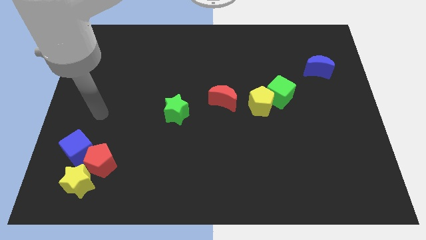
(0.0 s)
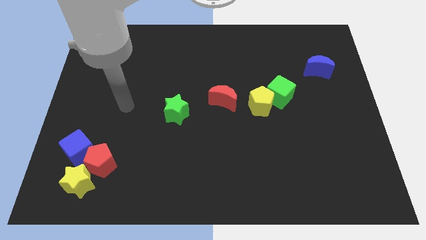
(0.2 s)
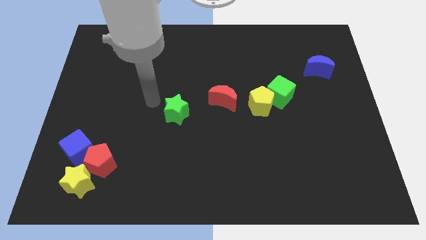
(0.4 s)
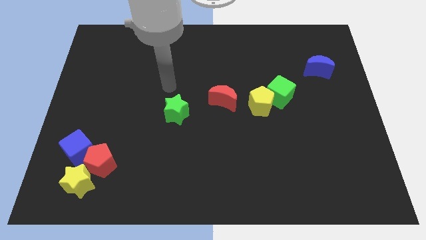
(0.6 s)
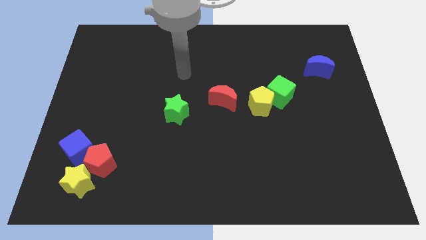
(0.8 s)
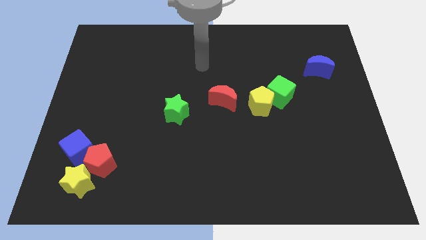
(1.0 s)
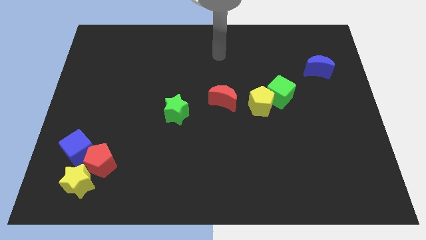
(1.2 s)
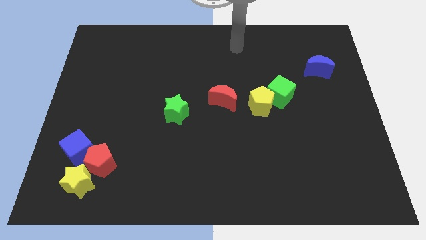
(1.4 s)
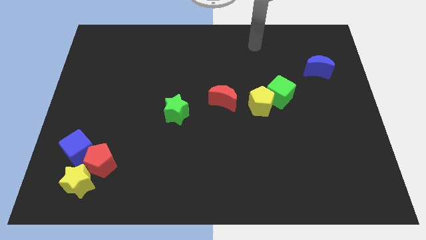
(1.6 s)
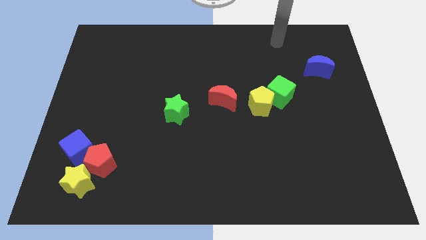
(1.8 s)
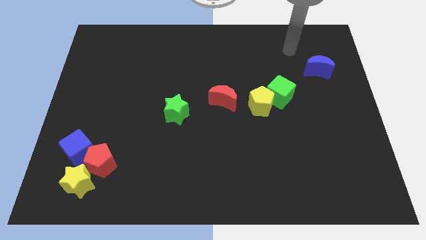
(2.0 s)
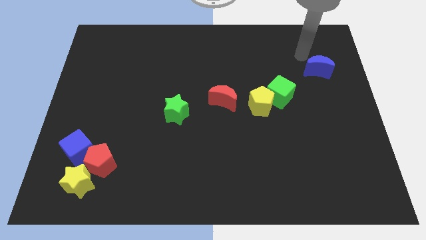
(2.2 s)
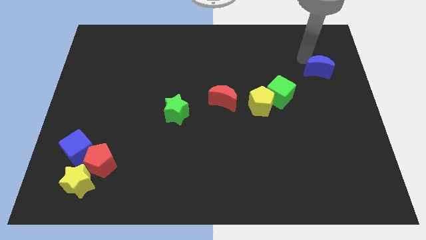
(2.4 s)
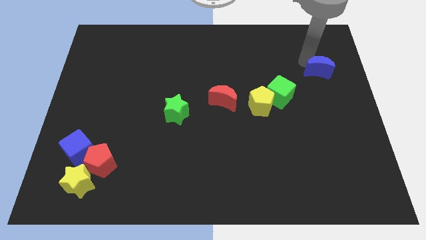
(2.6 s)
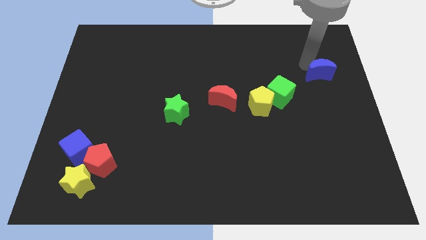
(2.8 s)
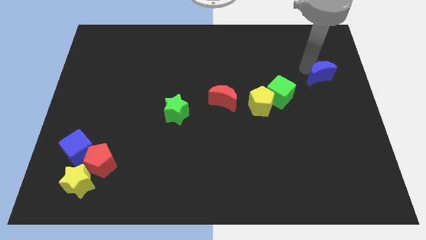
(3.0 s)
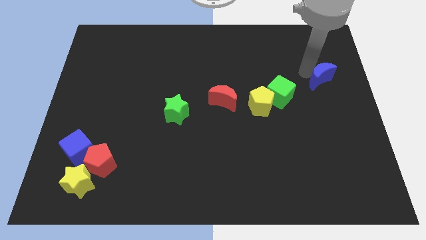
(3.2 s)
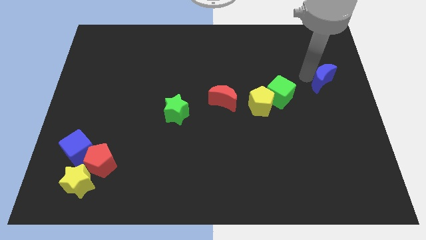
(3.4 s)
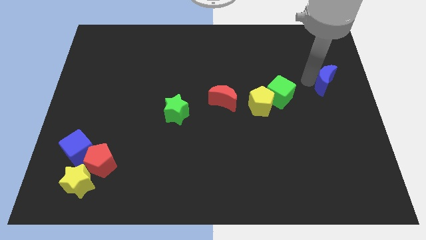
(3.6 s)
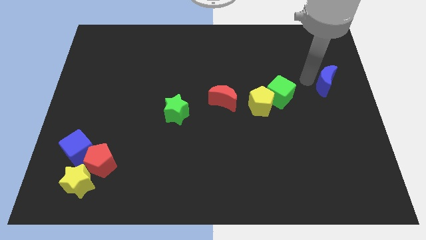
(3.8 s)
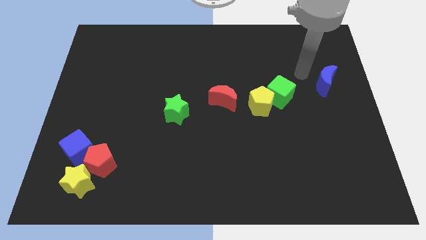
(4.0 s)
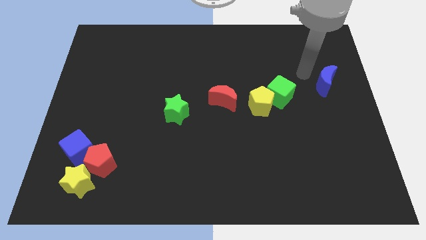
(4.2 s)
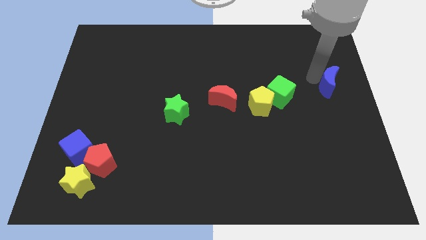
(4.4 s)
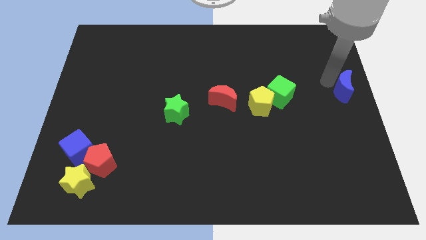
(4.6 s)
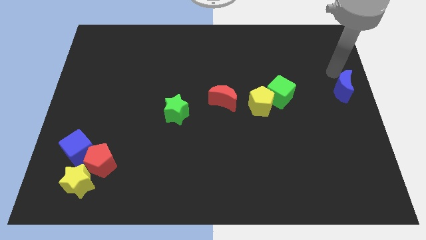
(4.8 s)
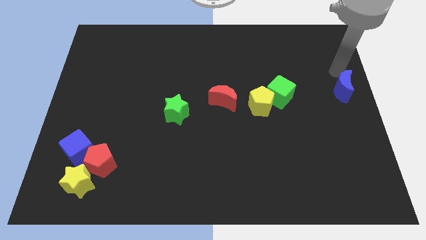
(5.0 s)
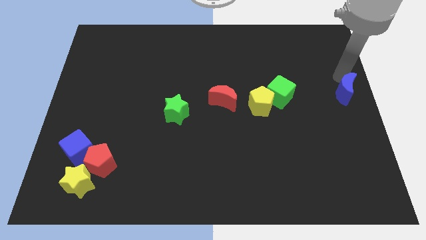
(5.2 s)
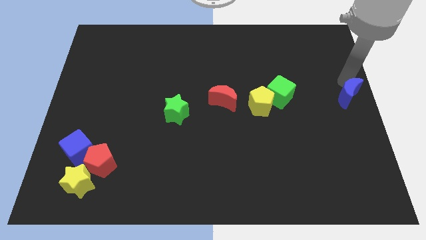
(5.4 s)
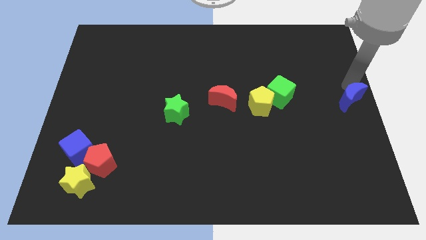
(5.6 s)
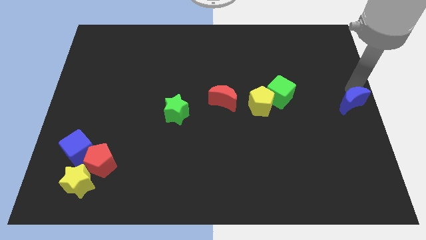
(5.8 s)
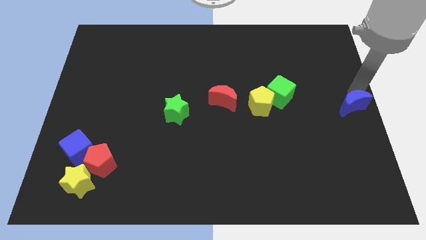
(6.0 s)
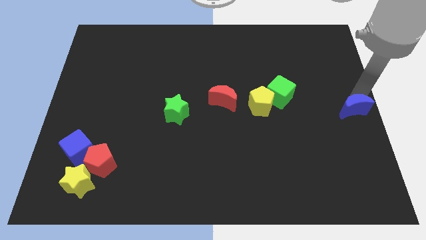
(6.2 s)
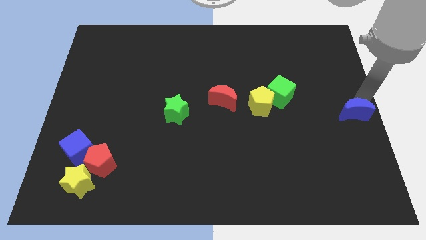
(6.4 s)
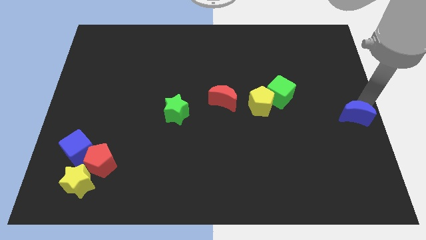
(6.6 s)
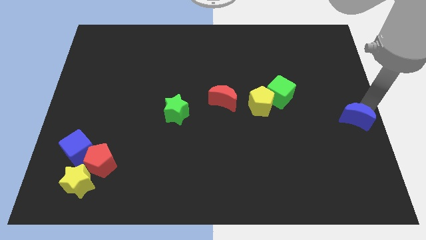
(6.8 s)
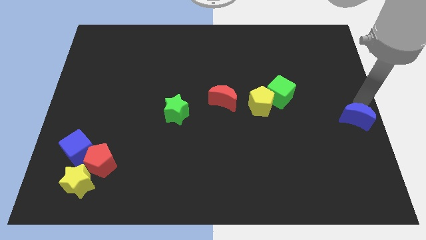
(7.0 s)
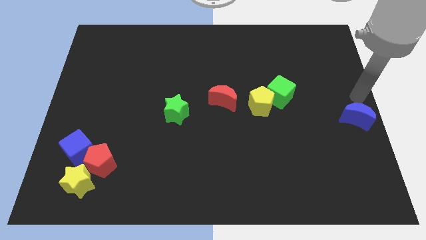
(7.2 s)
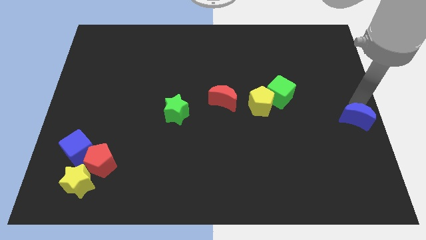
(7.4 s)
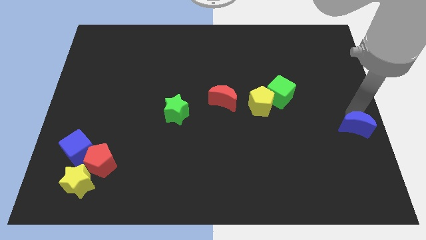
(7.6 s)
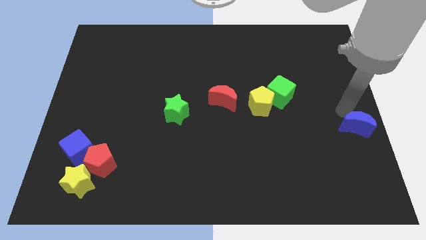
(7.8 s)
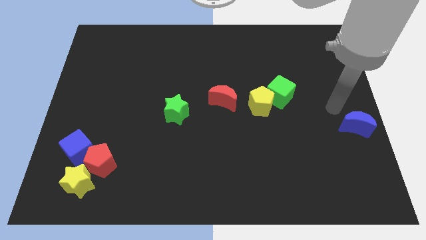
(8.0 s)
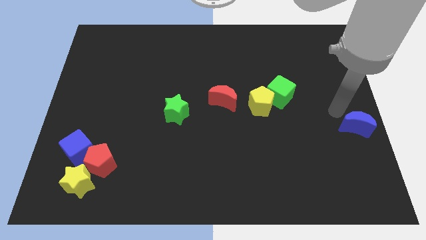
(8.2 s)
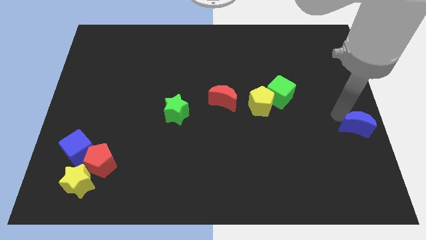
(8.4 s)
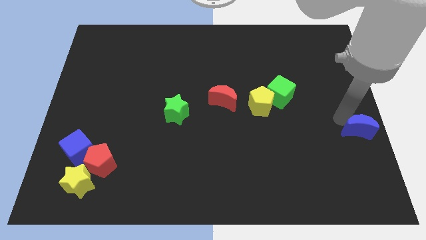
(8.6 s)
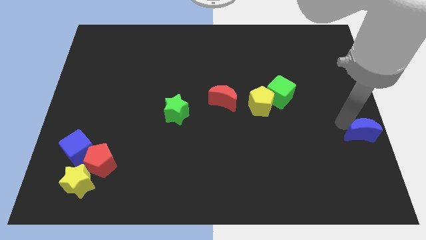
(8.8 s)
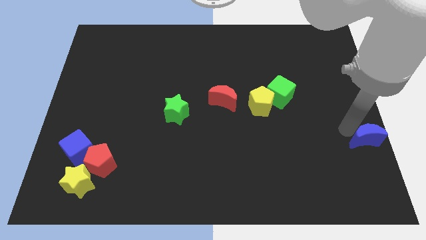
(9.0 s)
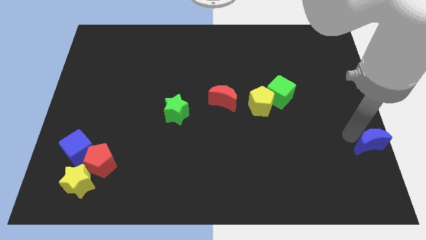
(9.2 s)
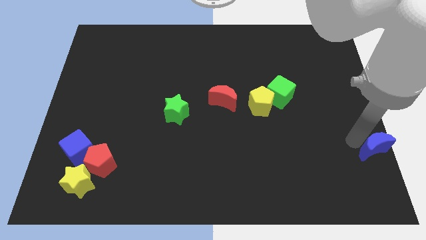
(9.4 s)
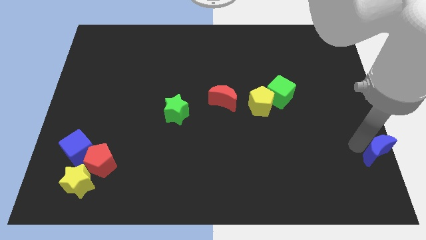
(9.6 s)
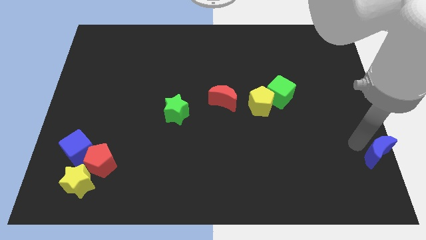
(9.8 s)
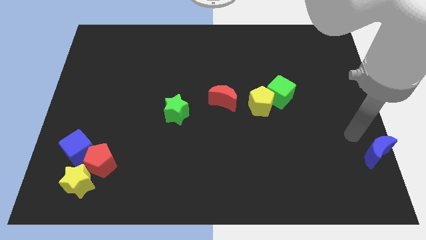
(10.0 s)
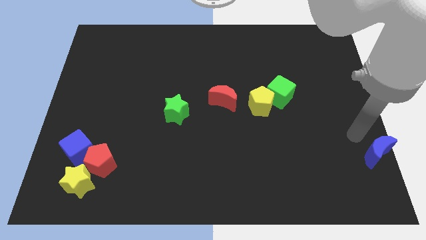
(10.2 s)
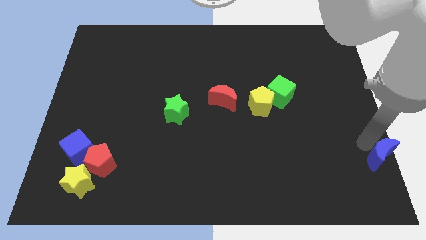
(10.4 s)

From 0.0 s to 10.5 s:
move the blue moon to the bottom right corner

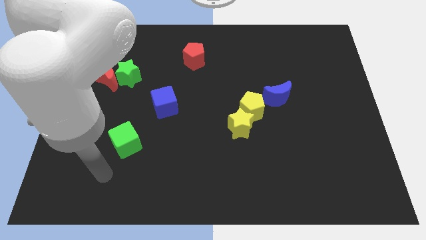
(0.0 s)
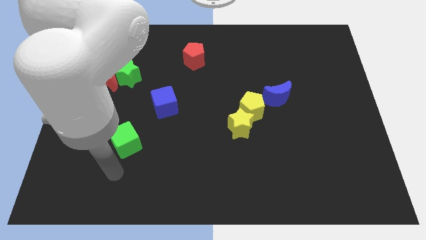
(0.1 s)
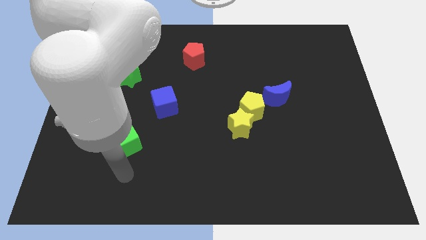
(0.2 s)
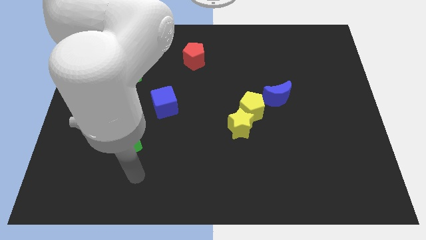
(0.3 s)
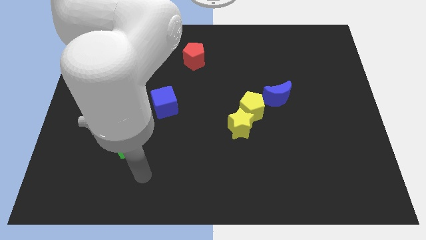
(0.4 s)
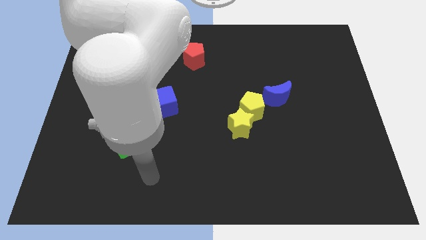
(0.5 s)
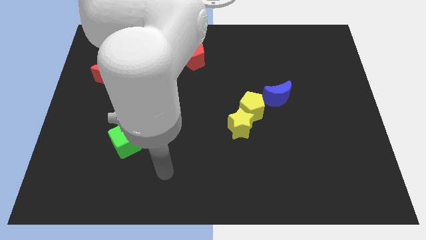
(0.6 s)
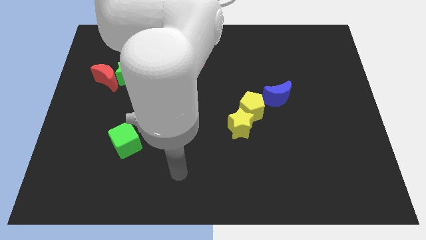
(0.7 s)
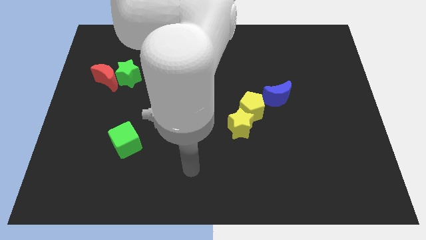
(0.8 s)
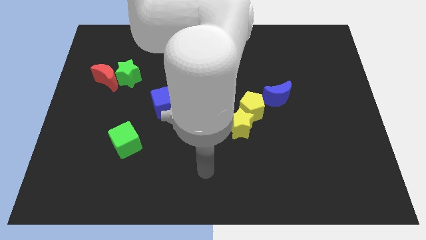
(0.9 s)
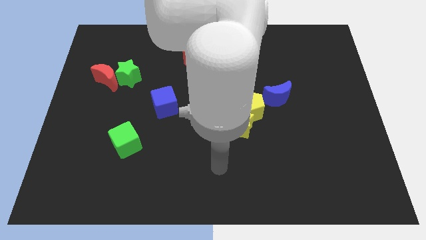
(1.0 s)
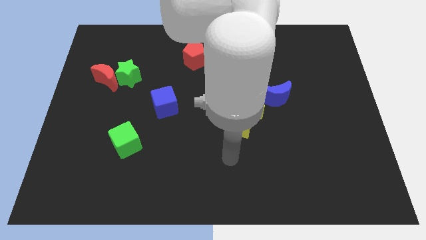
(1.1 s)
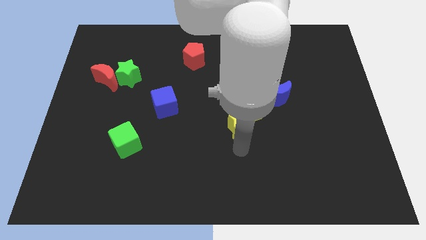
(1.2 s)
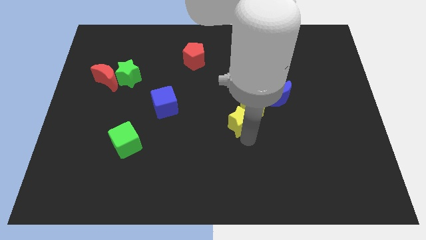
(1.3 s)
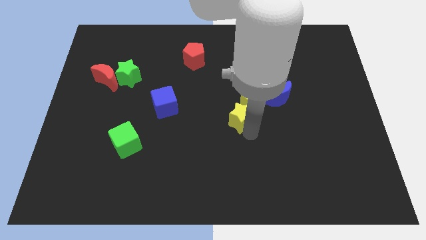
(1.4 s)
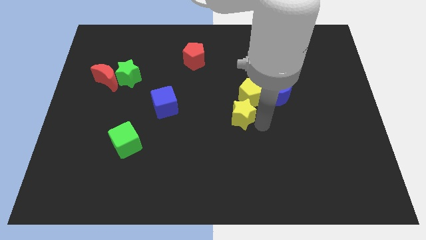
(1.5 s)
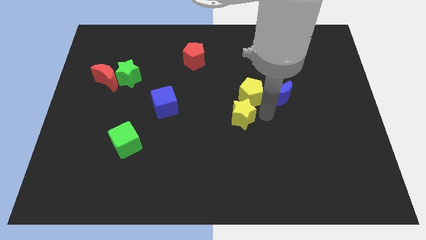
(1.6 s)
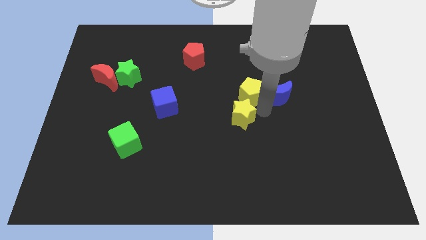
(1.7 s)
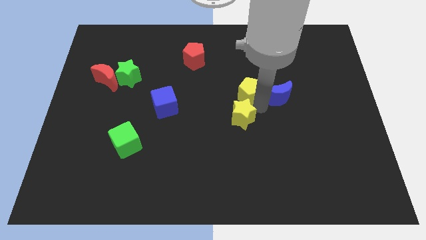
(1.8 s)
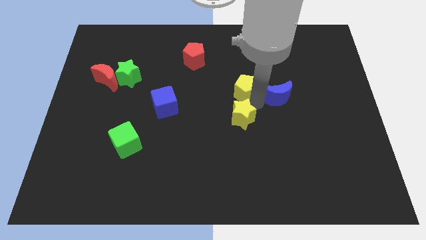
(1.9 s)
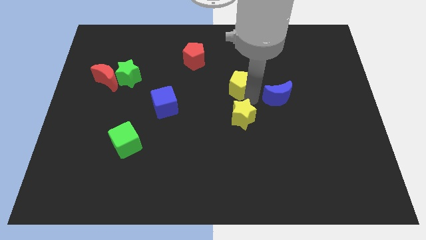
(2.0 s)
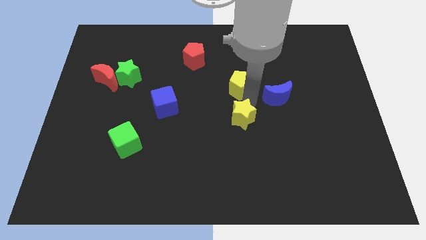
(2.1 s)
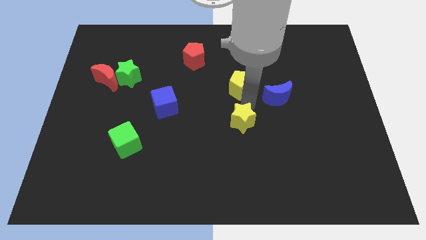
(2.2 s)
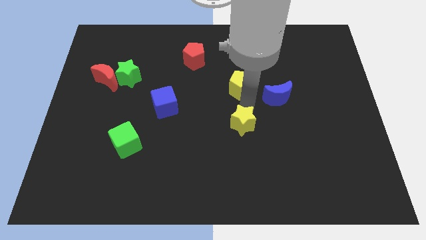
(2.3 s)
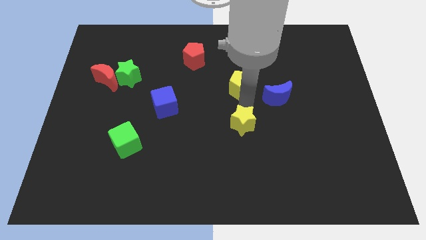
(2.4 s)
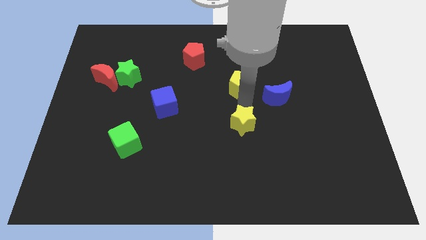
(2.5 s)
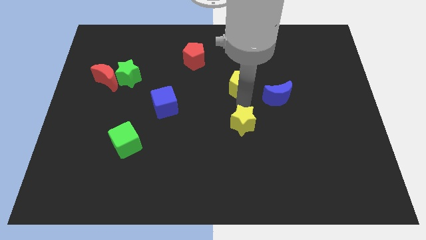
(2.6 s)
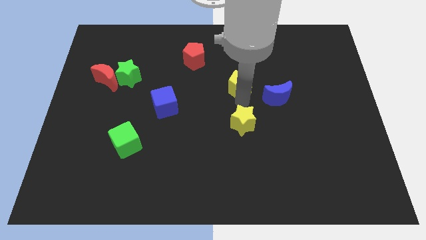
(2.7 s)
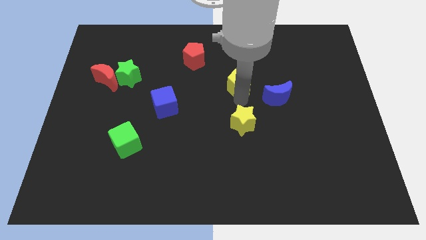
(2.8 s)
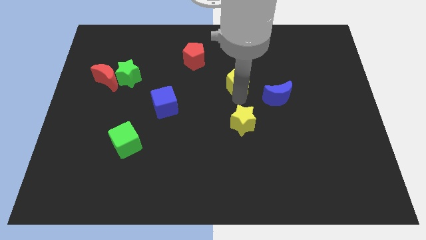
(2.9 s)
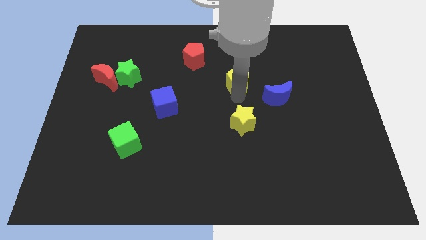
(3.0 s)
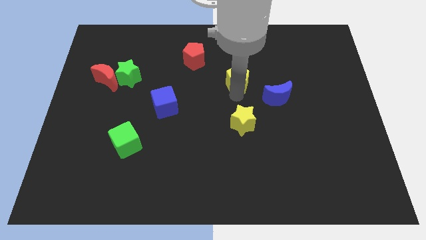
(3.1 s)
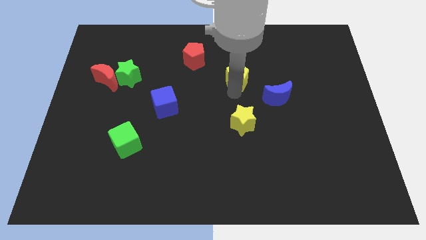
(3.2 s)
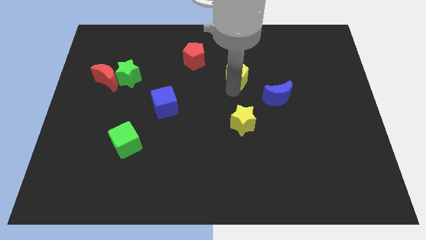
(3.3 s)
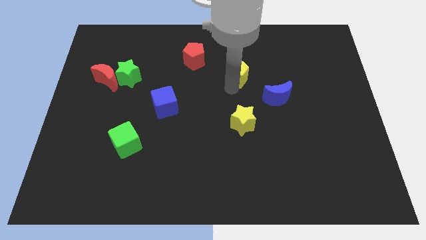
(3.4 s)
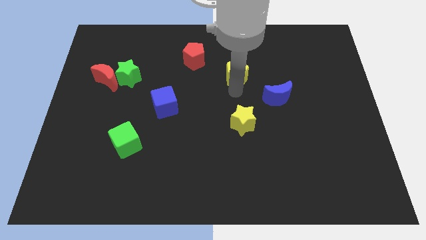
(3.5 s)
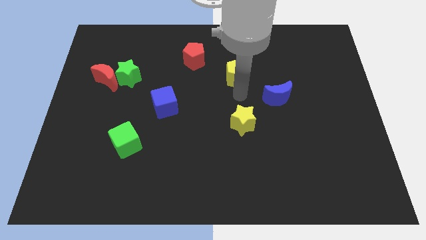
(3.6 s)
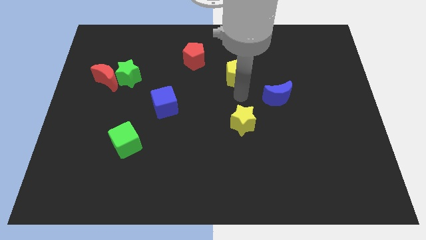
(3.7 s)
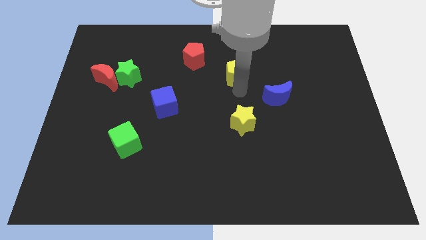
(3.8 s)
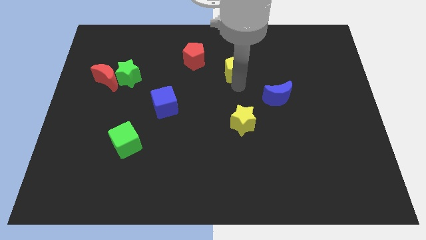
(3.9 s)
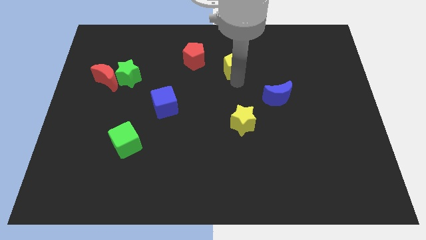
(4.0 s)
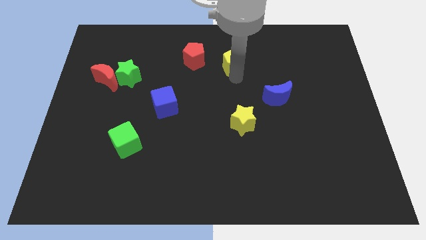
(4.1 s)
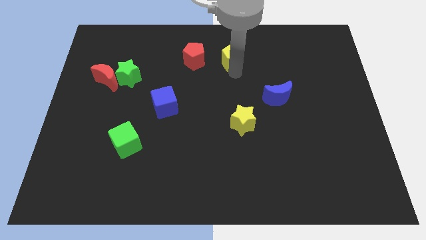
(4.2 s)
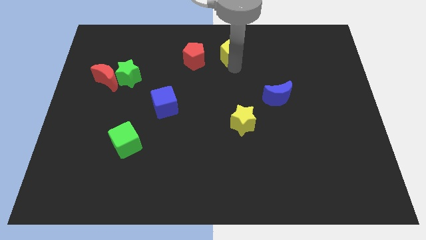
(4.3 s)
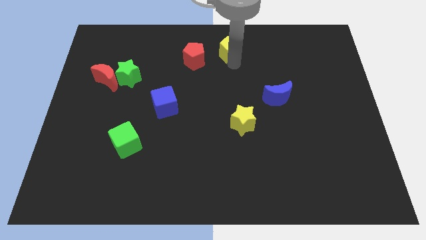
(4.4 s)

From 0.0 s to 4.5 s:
push the yellow pentagon to the towards your base
